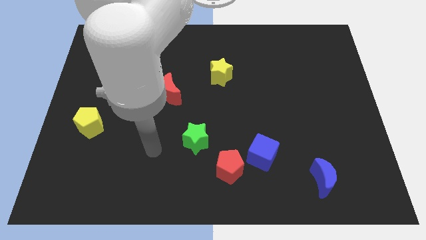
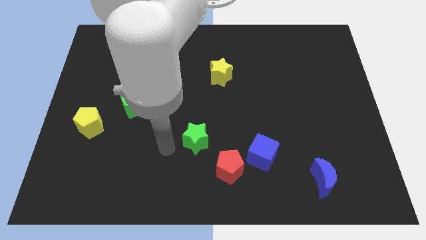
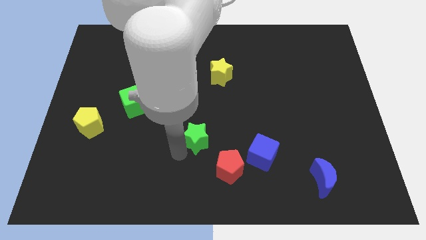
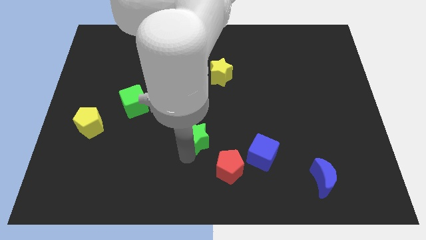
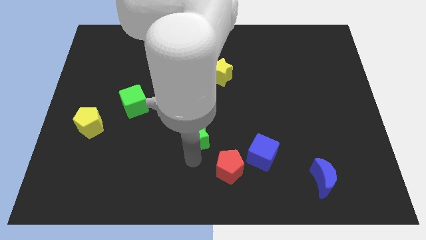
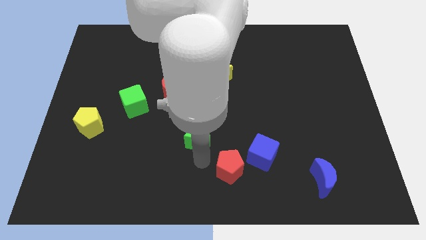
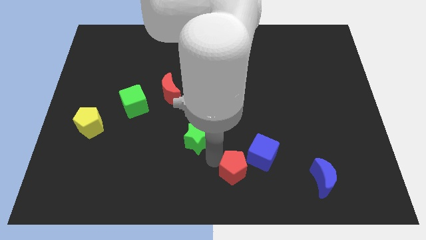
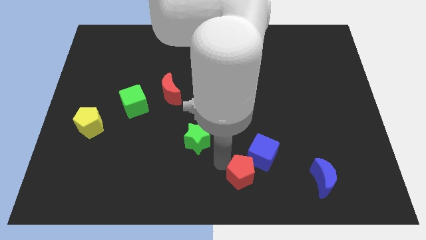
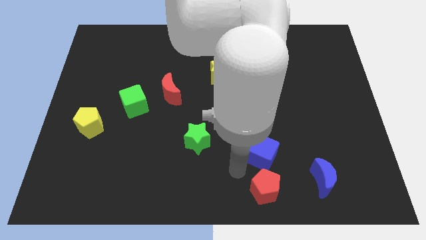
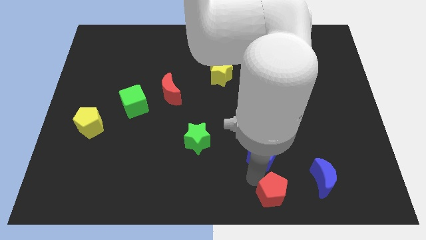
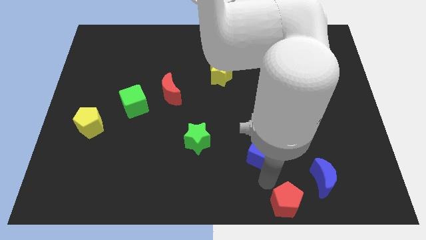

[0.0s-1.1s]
pull the blue cube apart from the red pentagon

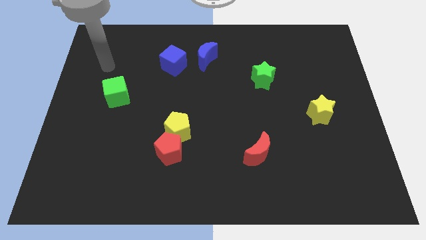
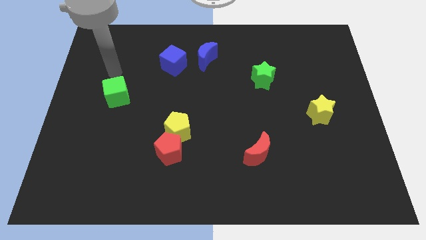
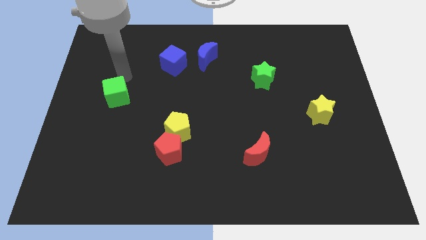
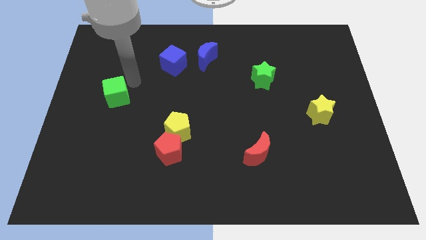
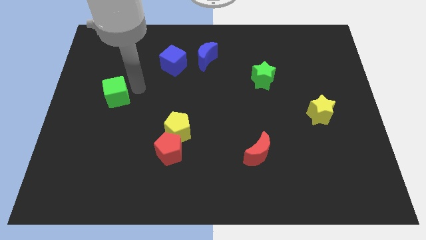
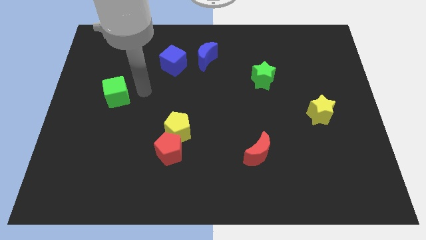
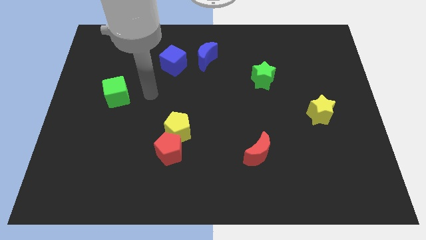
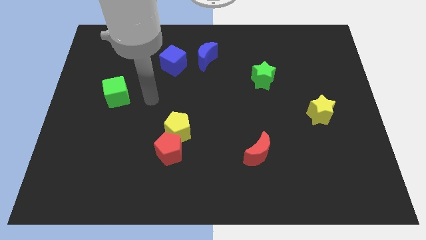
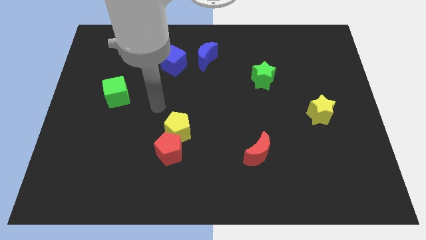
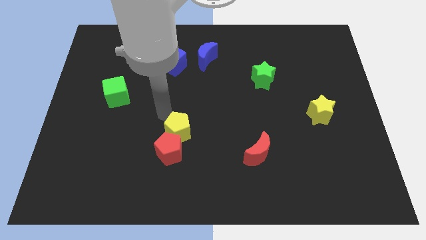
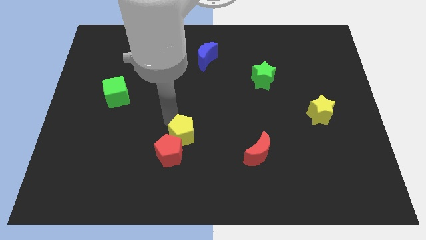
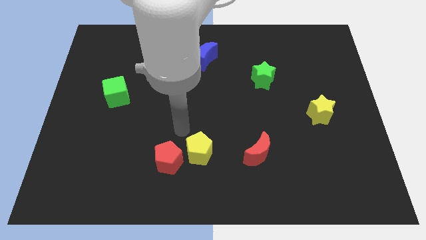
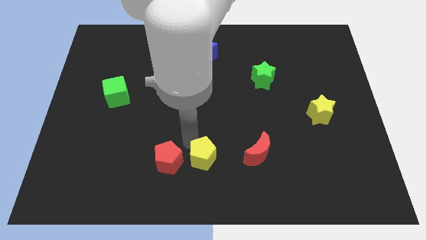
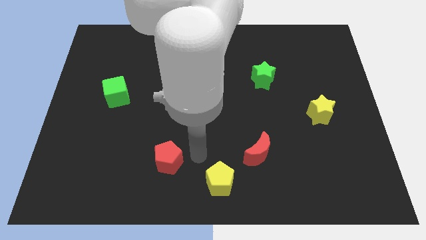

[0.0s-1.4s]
move the red pentagon away from the yellow pentagon

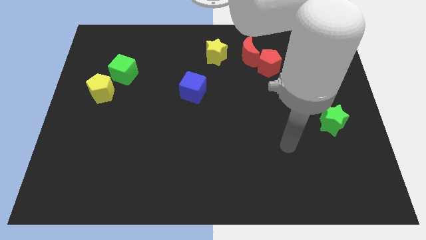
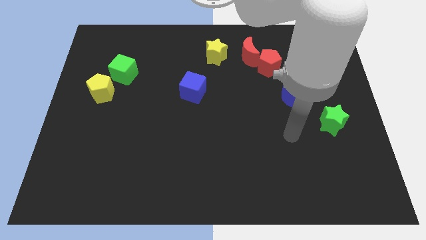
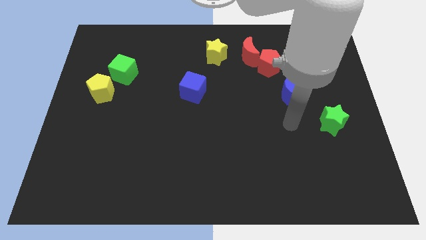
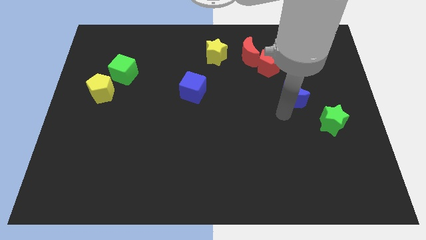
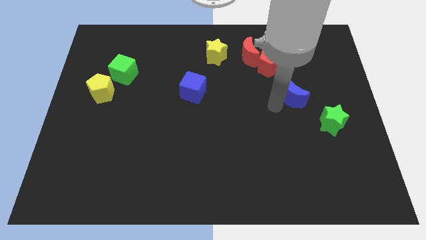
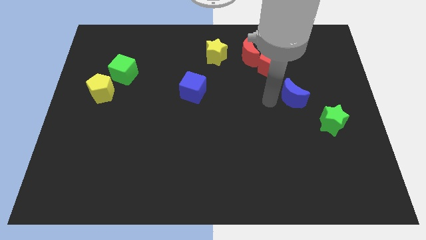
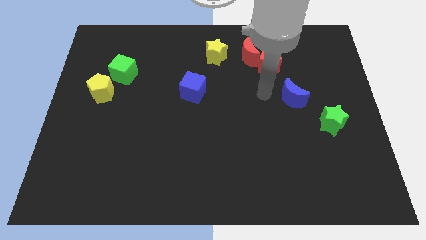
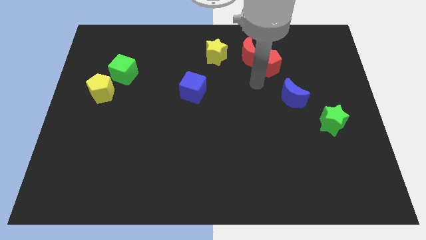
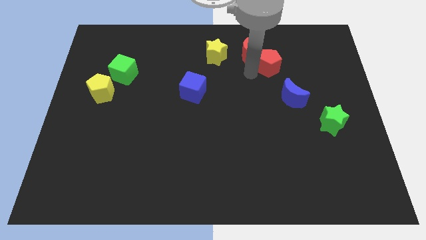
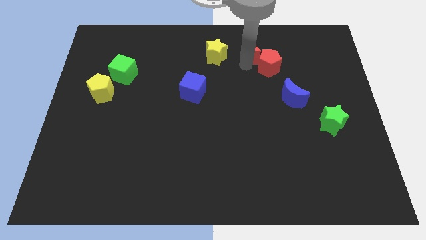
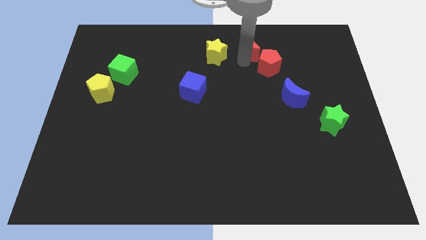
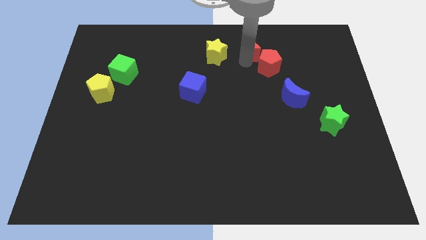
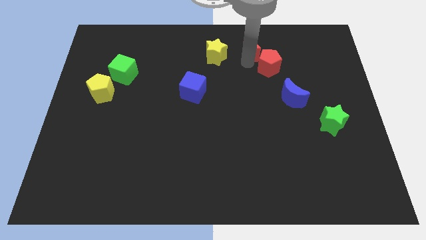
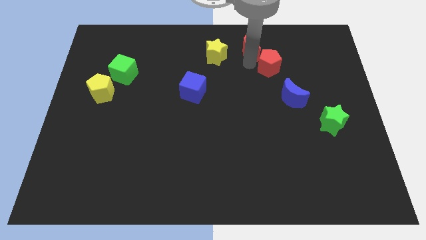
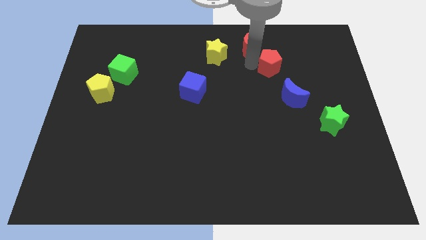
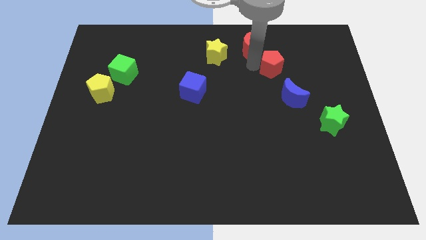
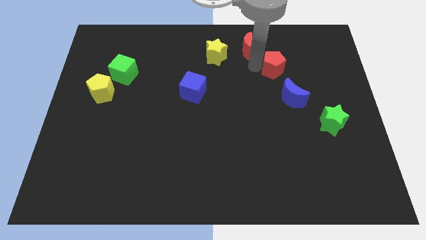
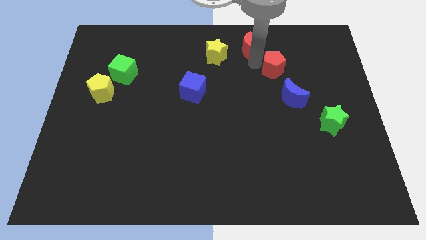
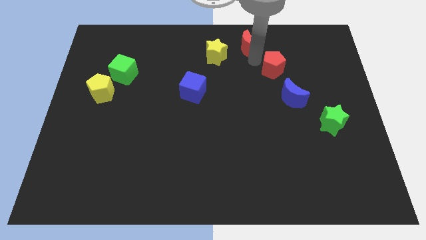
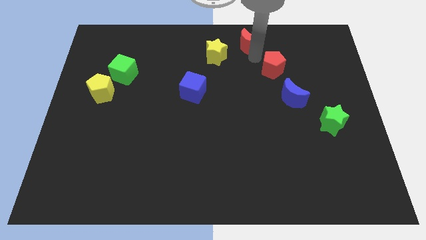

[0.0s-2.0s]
move the red pentagon away from the red moon

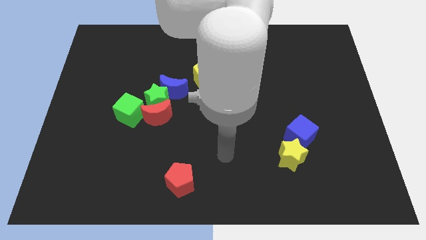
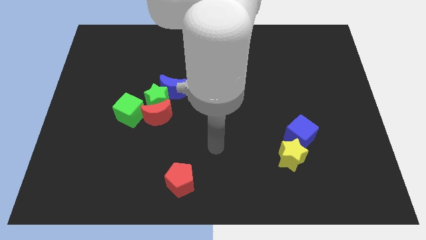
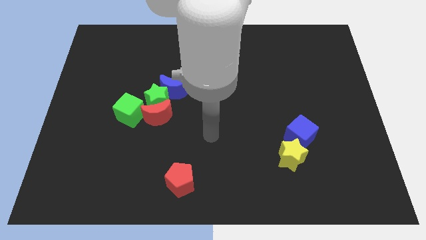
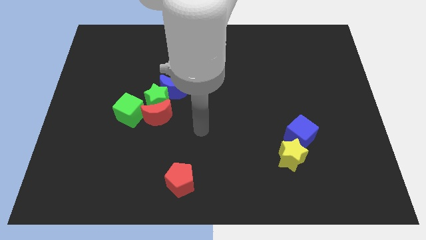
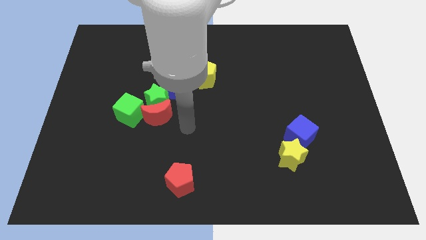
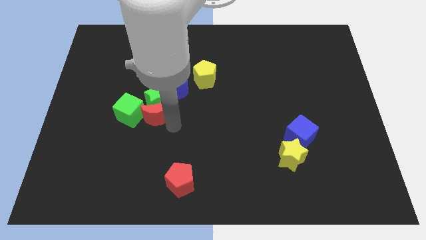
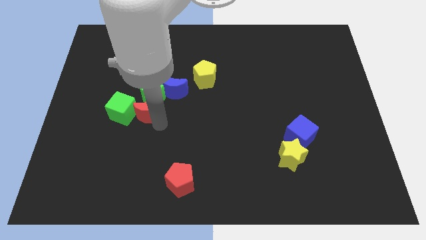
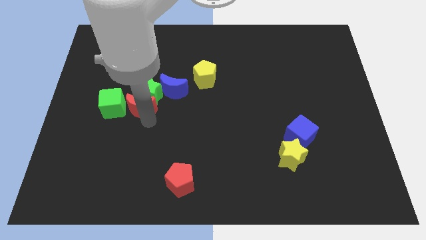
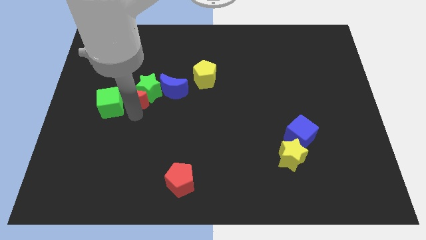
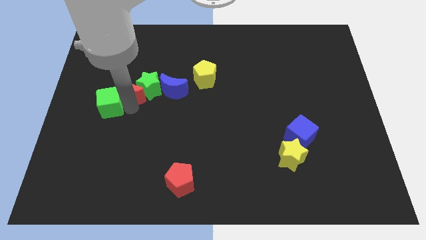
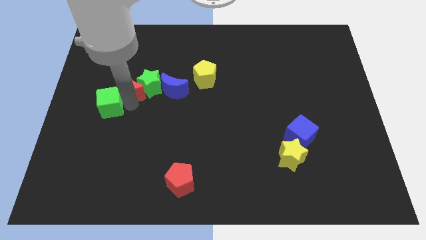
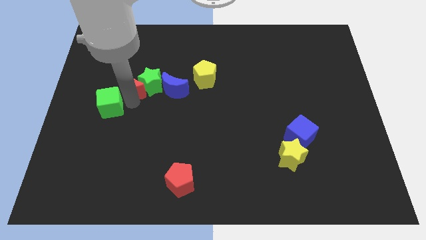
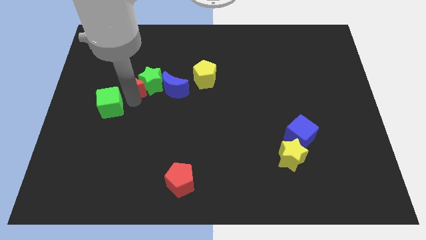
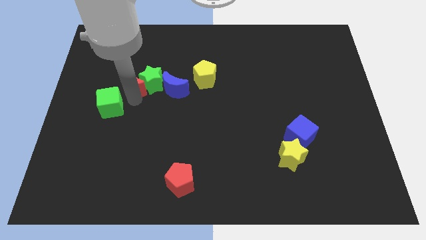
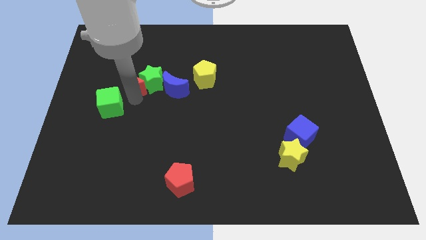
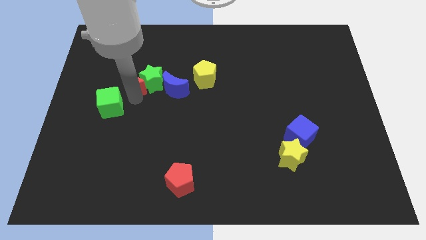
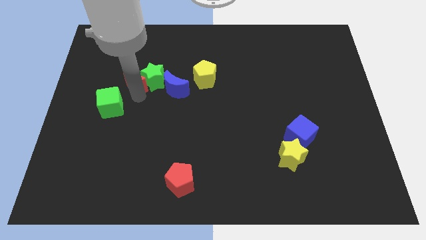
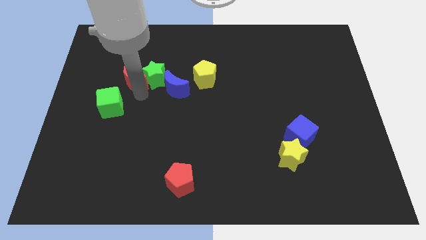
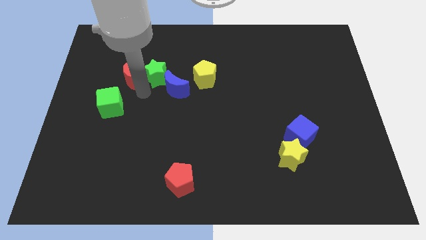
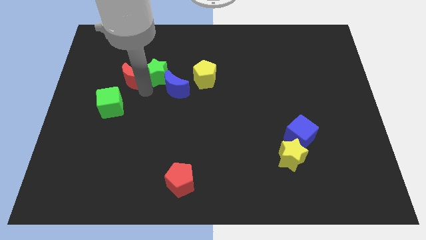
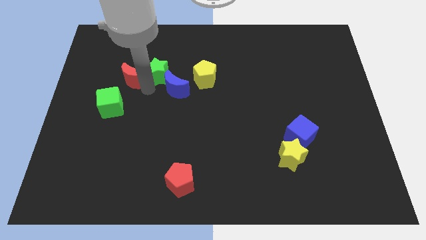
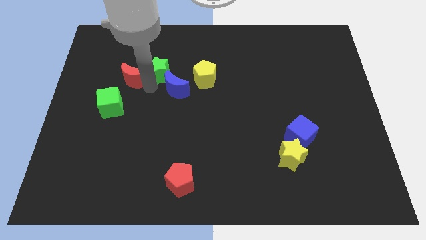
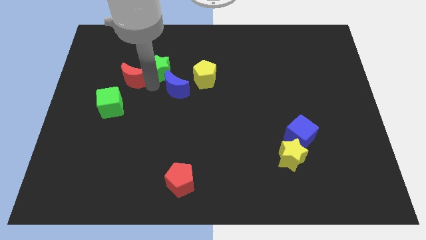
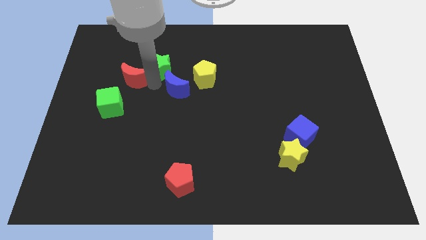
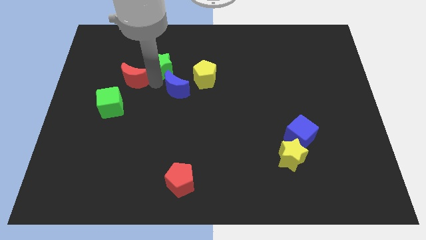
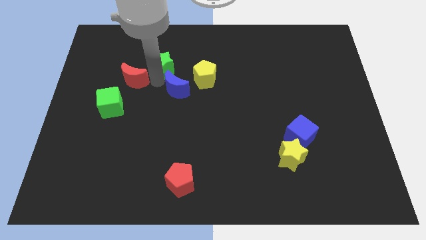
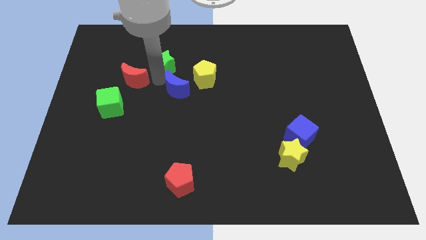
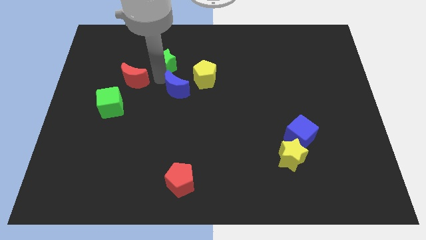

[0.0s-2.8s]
move the green star away from the red moon, blue moon, and green cube

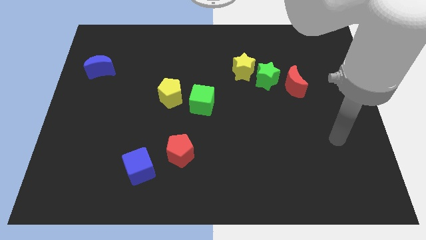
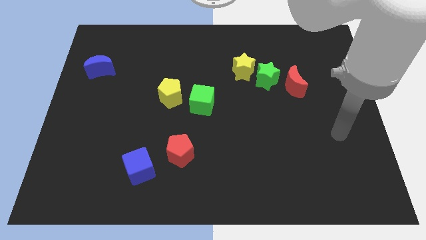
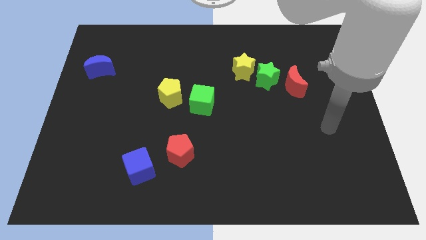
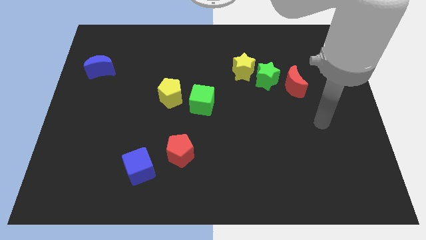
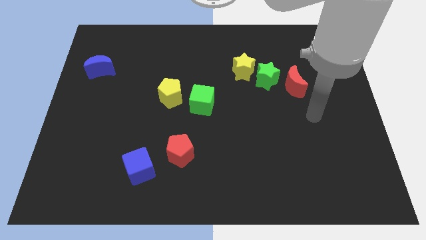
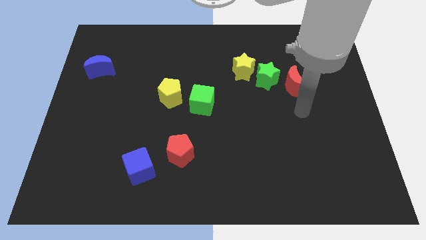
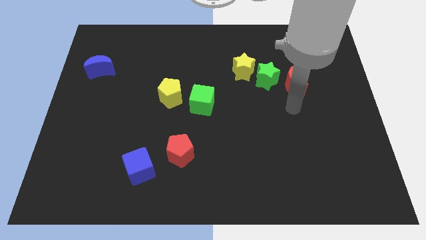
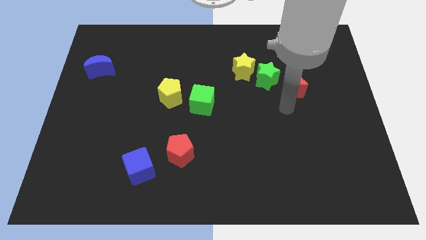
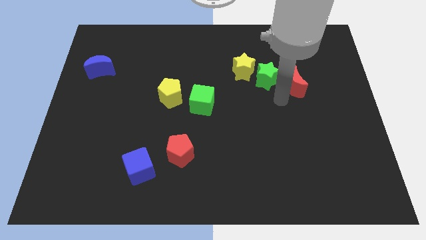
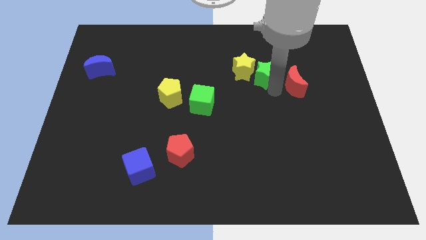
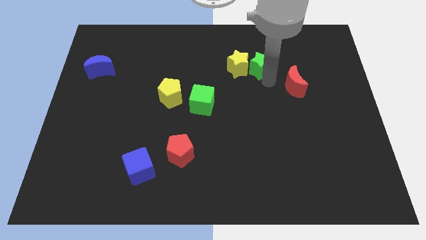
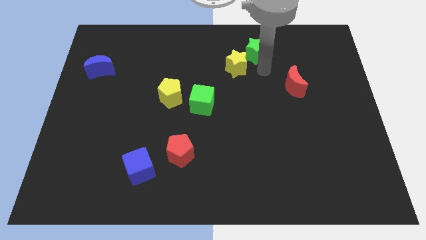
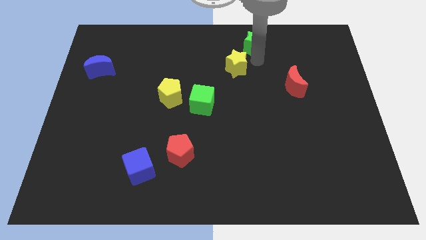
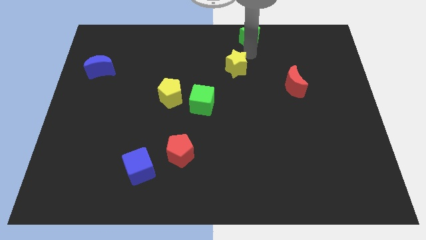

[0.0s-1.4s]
separate the yellow star from the green star

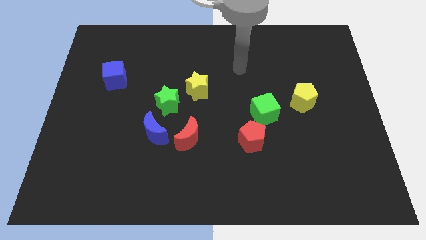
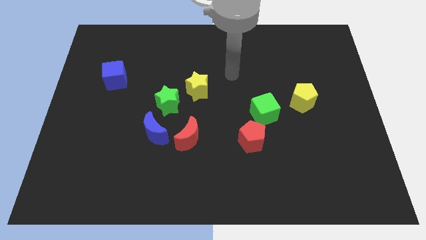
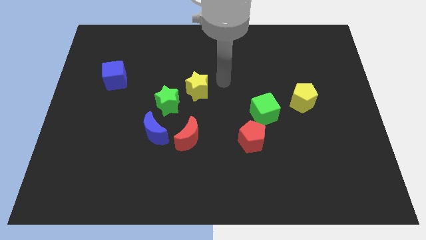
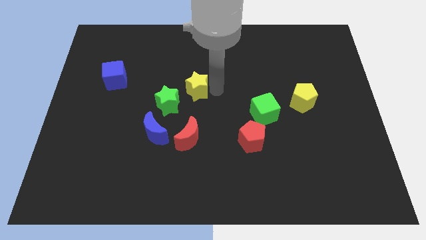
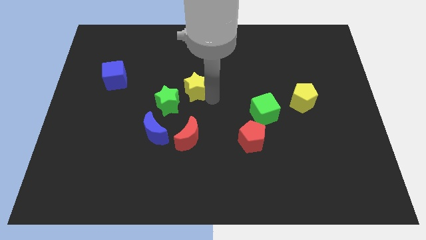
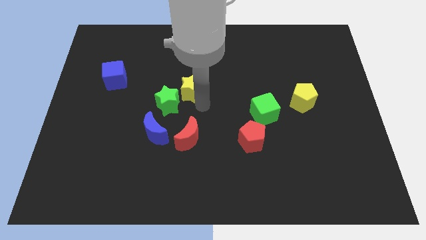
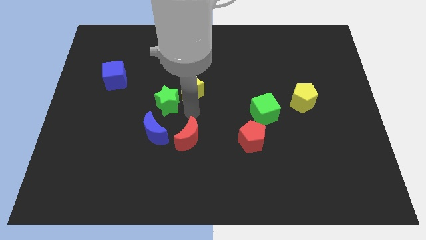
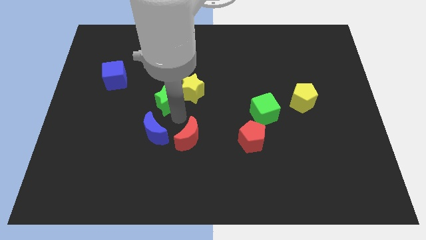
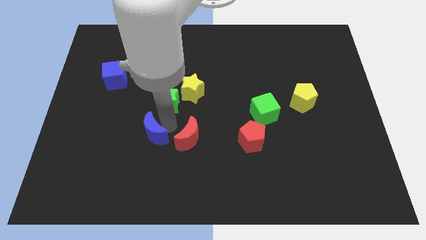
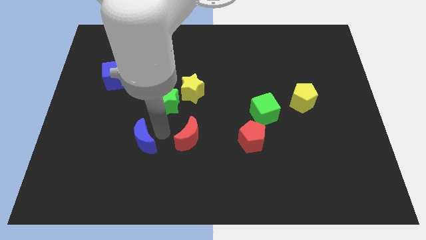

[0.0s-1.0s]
separate the red moon from the blue moon
